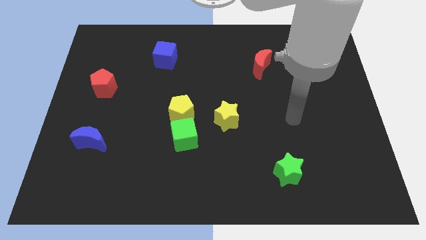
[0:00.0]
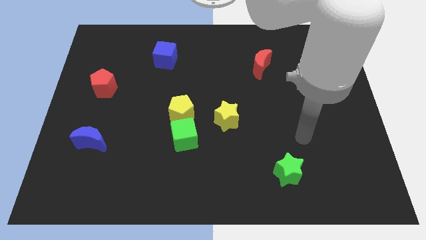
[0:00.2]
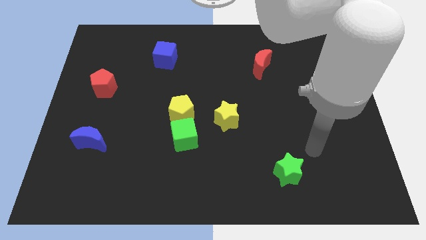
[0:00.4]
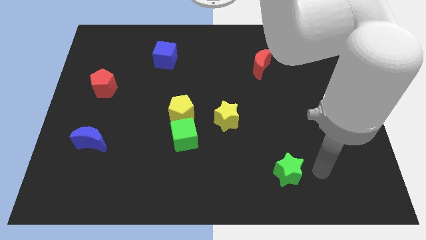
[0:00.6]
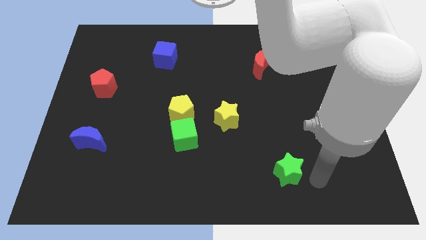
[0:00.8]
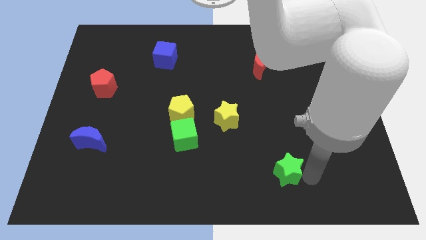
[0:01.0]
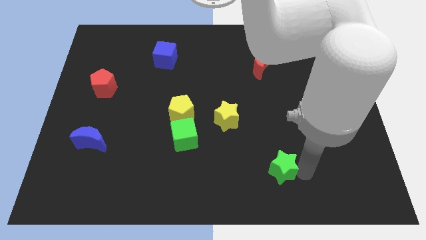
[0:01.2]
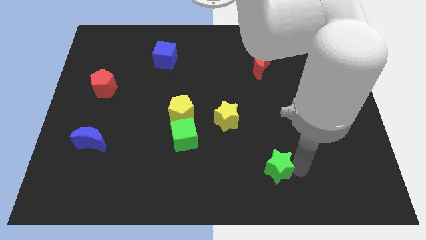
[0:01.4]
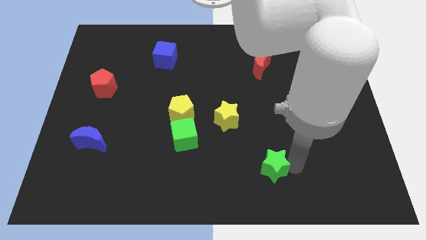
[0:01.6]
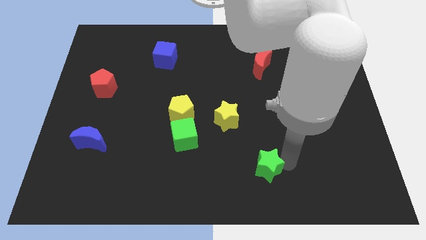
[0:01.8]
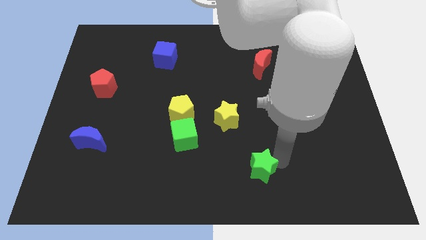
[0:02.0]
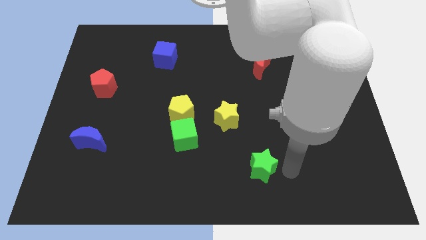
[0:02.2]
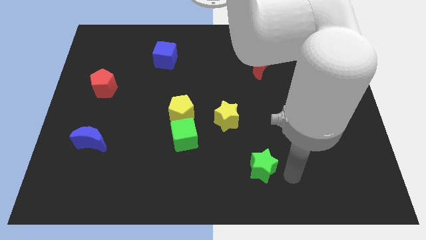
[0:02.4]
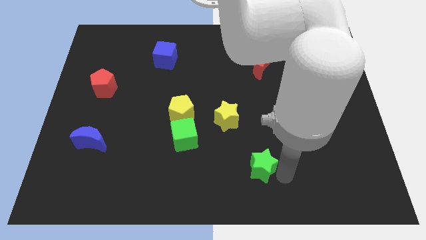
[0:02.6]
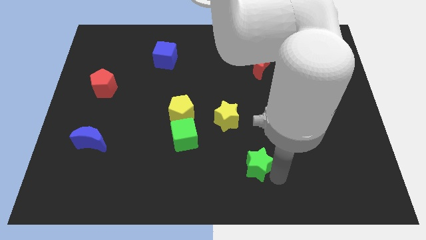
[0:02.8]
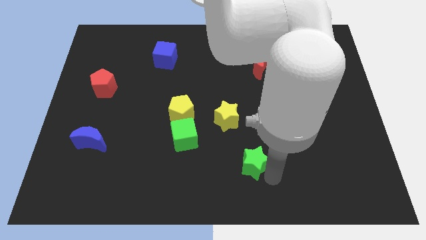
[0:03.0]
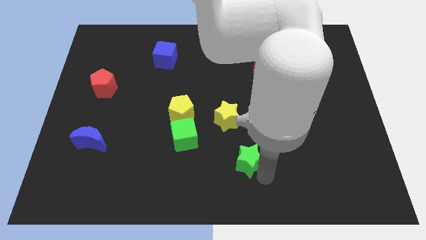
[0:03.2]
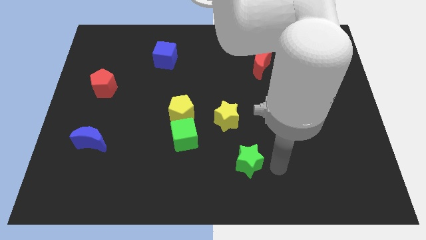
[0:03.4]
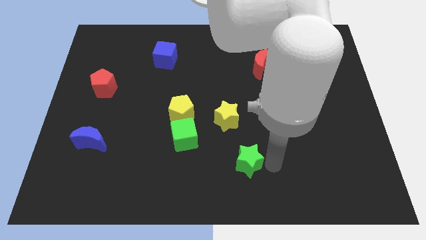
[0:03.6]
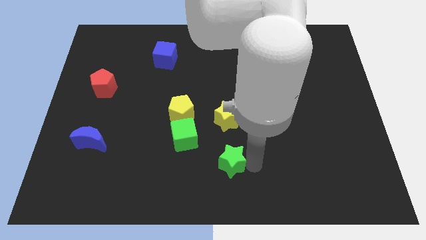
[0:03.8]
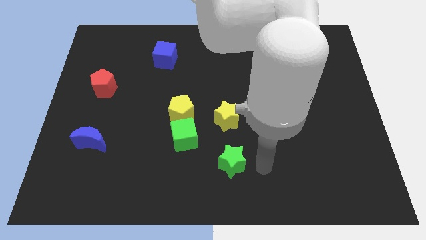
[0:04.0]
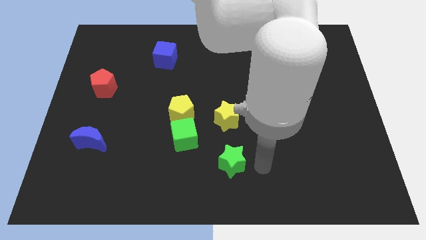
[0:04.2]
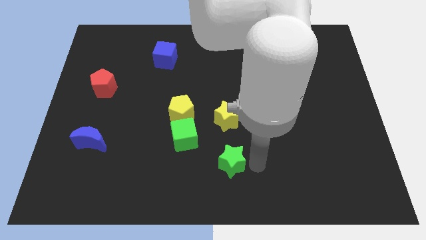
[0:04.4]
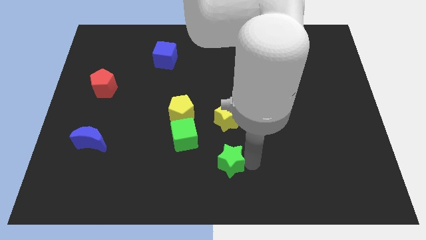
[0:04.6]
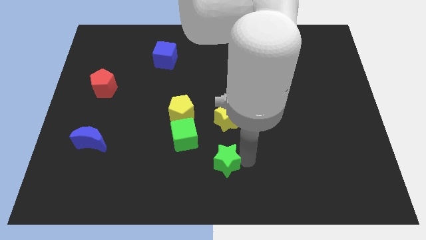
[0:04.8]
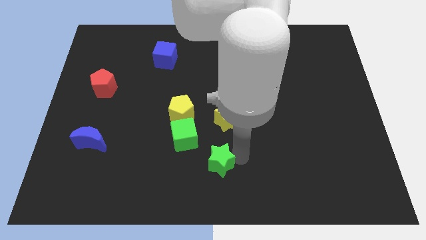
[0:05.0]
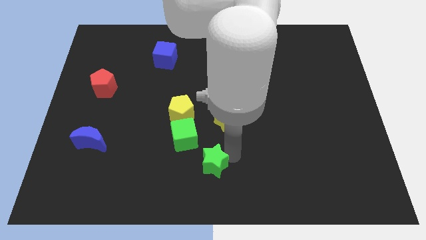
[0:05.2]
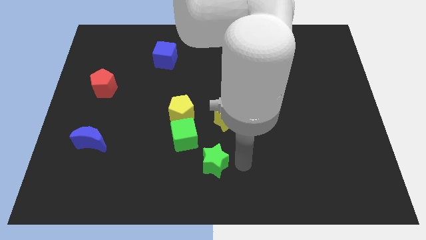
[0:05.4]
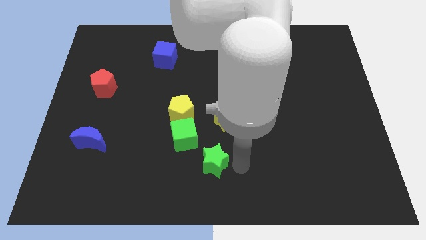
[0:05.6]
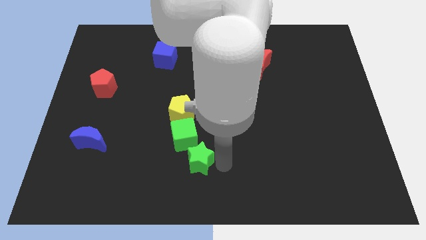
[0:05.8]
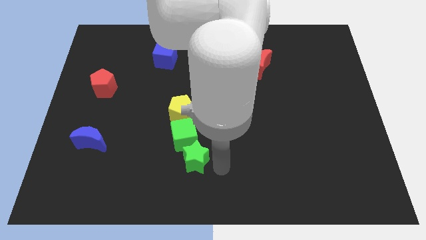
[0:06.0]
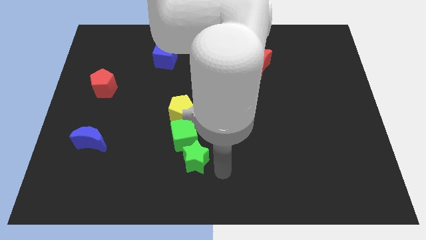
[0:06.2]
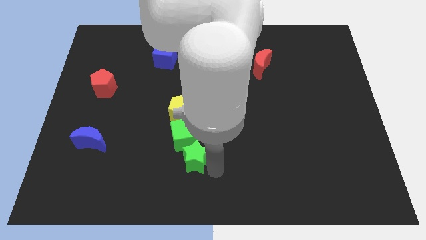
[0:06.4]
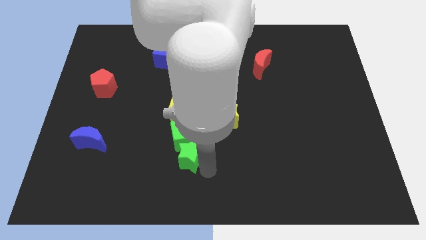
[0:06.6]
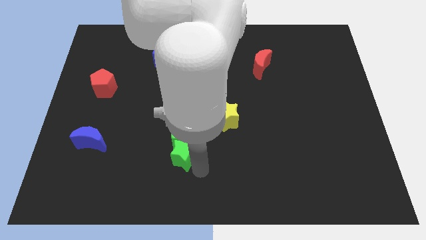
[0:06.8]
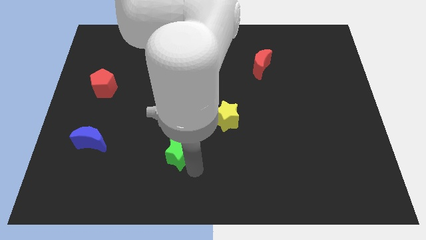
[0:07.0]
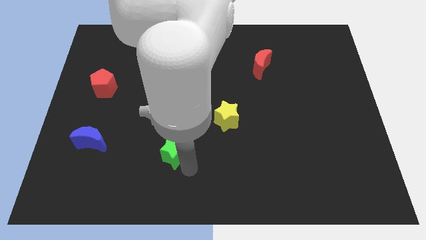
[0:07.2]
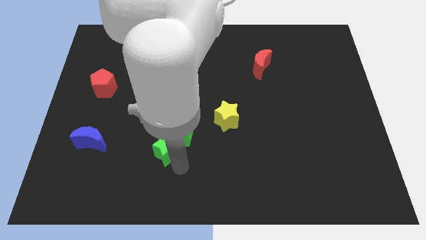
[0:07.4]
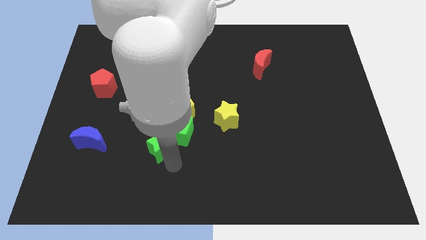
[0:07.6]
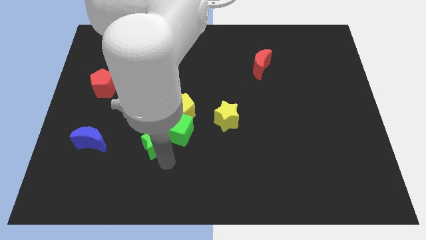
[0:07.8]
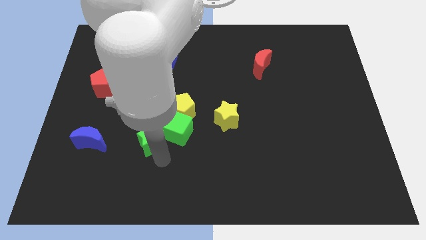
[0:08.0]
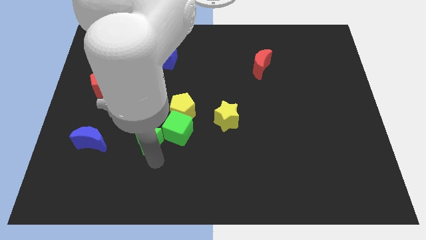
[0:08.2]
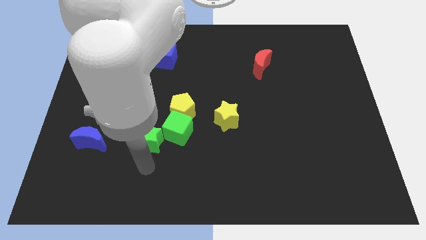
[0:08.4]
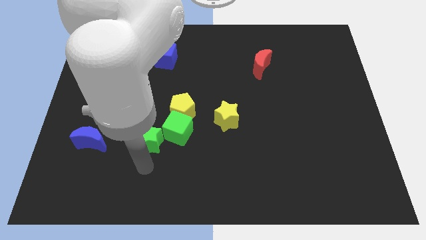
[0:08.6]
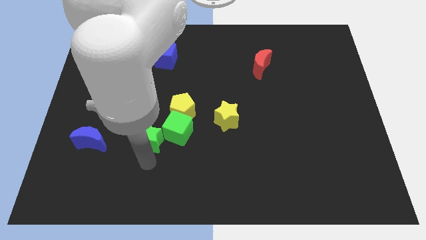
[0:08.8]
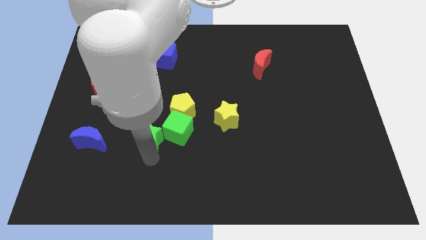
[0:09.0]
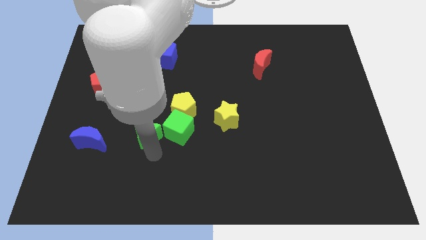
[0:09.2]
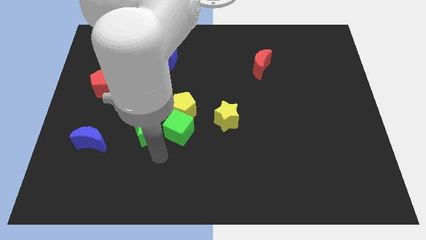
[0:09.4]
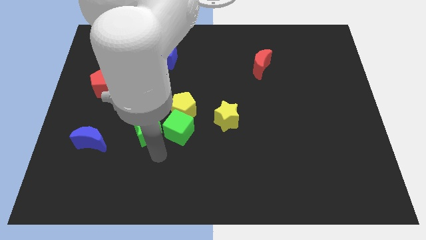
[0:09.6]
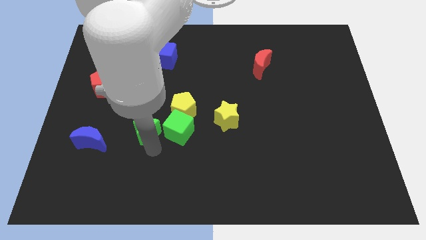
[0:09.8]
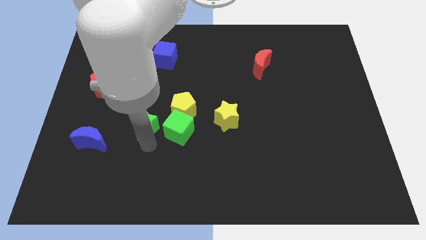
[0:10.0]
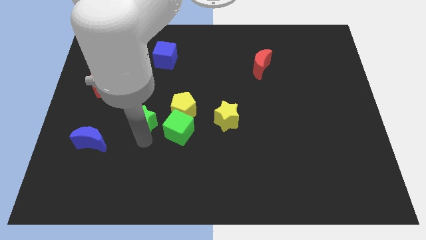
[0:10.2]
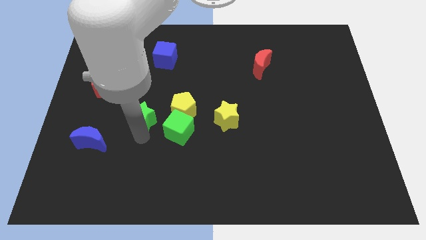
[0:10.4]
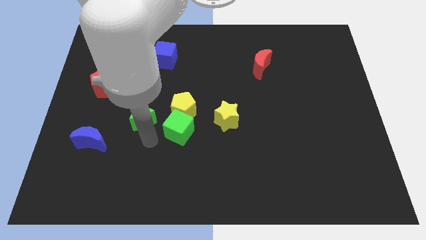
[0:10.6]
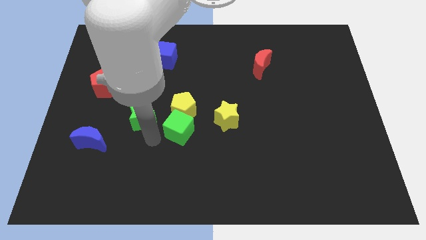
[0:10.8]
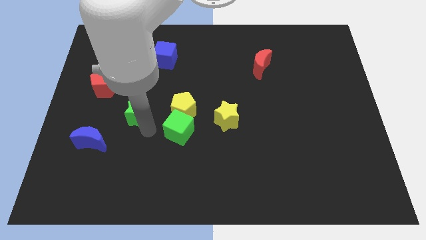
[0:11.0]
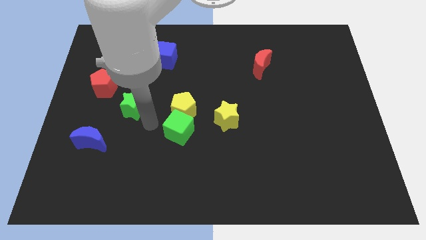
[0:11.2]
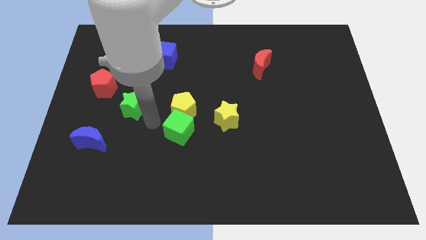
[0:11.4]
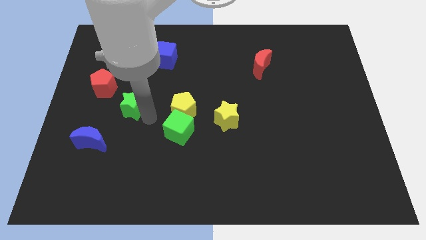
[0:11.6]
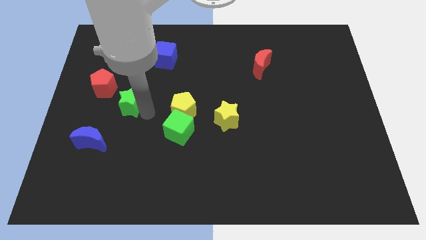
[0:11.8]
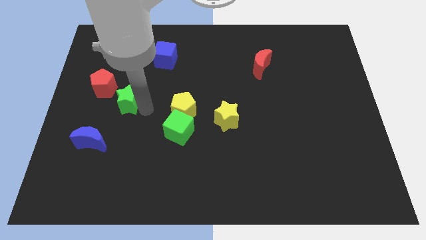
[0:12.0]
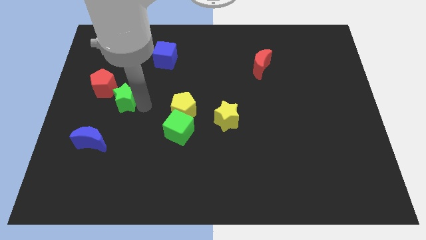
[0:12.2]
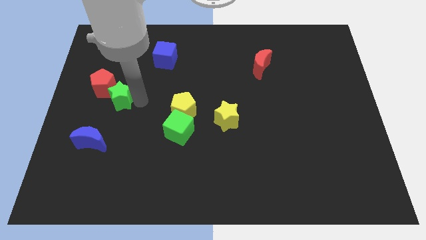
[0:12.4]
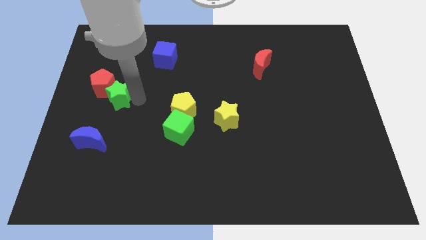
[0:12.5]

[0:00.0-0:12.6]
put the green star close to the red pentagon

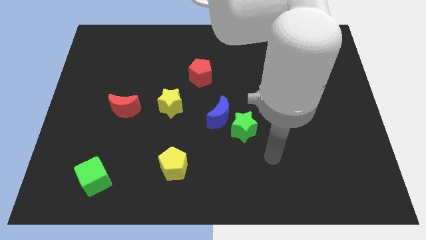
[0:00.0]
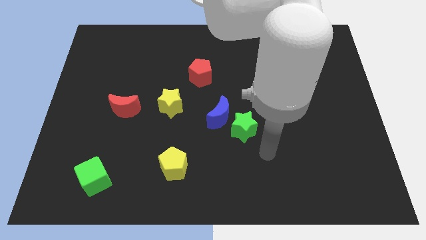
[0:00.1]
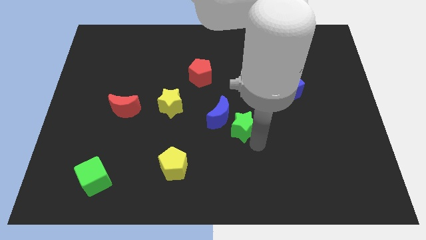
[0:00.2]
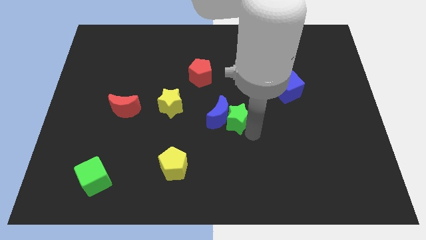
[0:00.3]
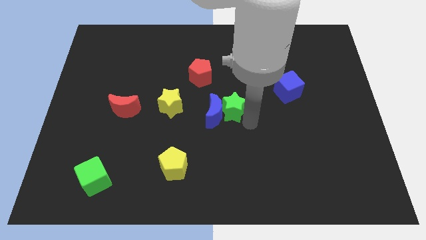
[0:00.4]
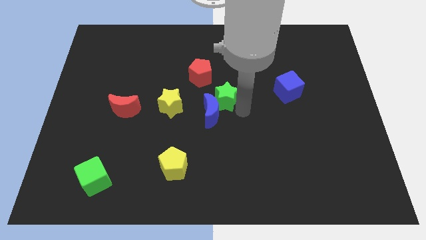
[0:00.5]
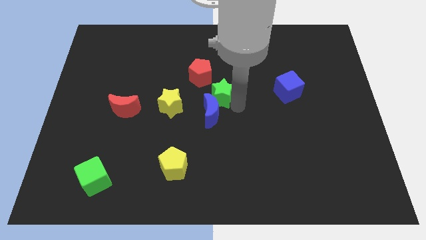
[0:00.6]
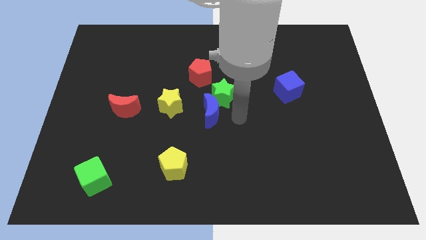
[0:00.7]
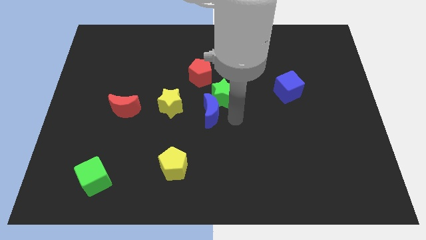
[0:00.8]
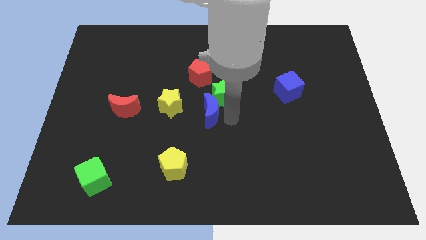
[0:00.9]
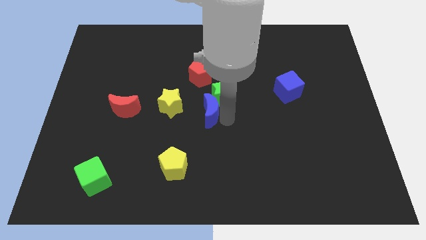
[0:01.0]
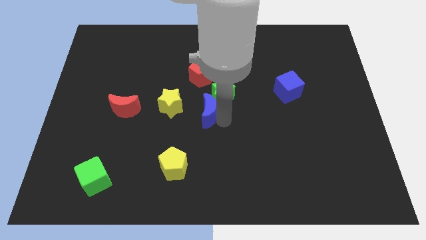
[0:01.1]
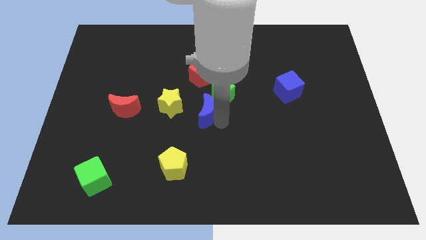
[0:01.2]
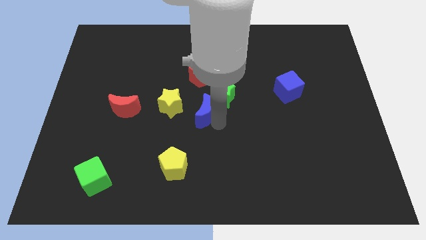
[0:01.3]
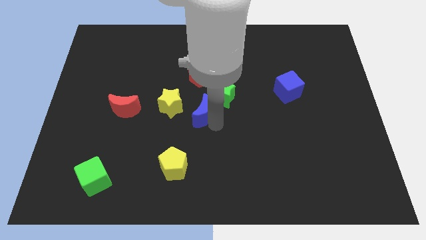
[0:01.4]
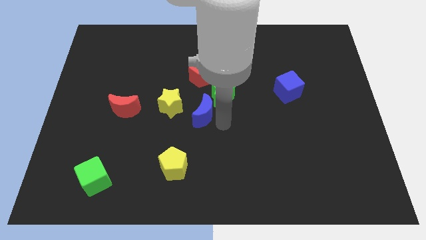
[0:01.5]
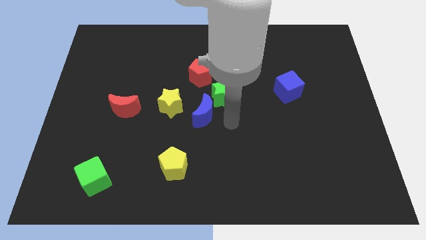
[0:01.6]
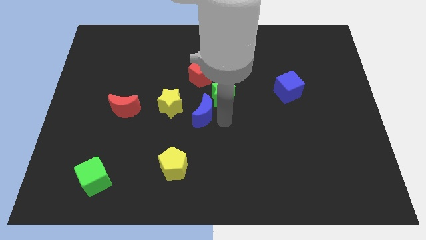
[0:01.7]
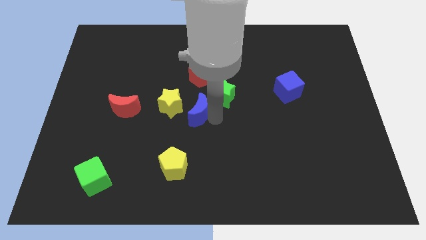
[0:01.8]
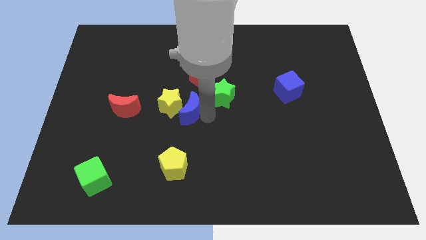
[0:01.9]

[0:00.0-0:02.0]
slide the blue moon towards the yellow star
